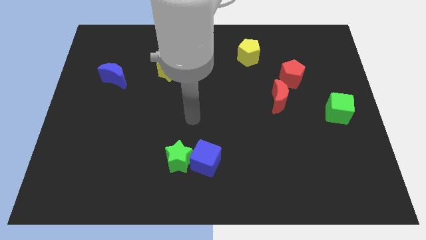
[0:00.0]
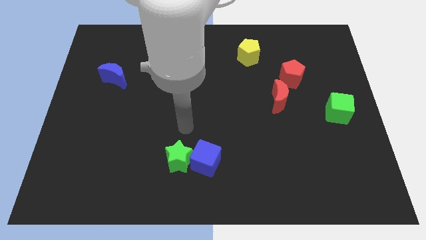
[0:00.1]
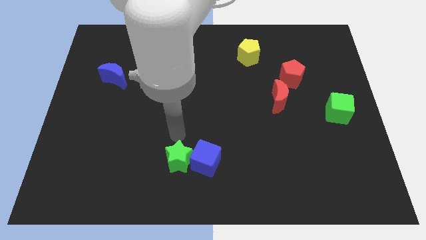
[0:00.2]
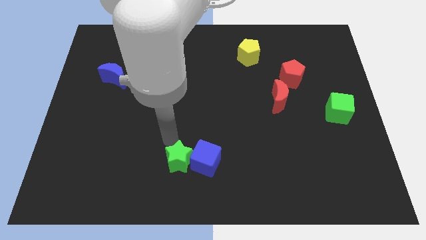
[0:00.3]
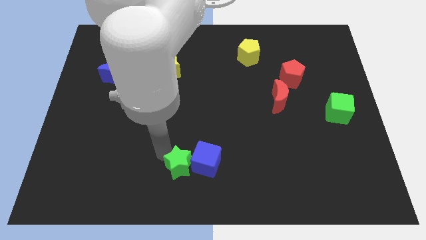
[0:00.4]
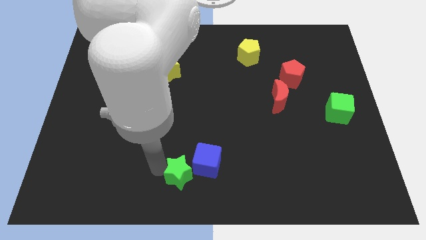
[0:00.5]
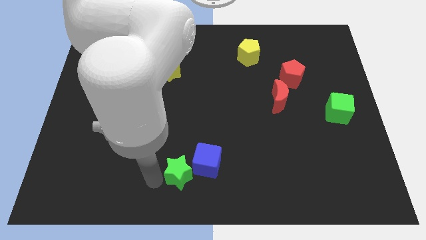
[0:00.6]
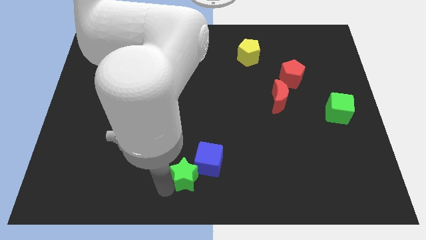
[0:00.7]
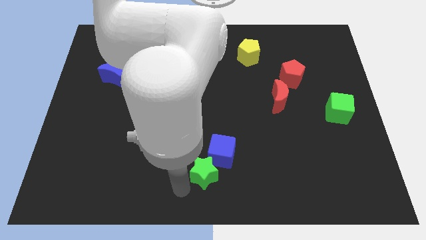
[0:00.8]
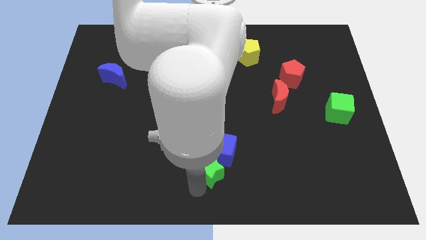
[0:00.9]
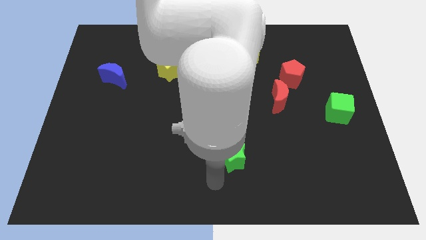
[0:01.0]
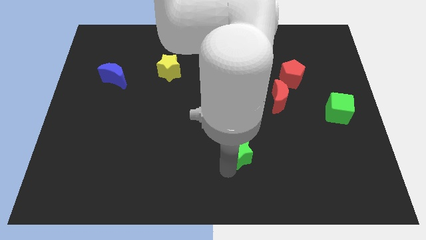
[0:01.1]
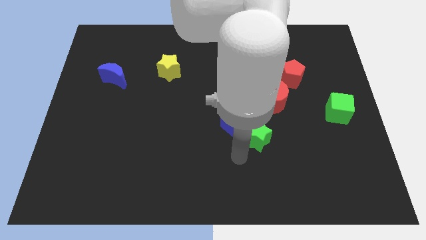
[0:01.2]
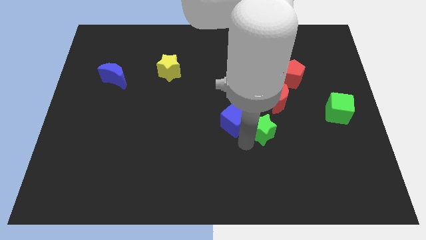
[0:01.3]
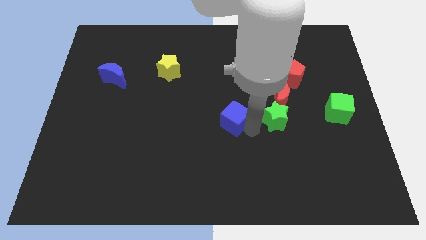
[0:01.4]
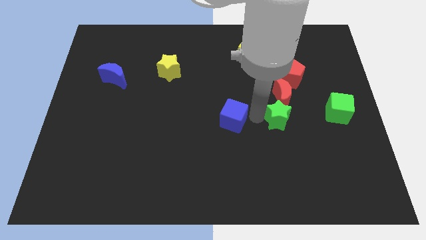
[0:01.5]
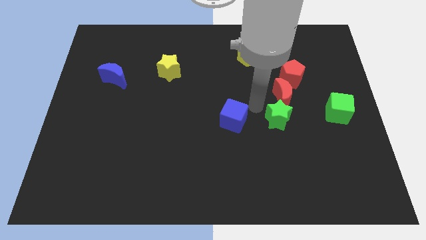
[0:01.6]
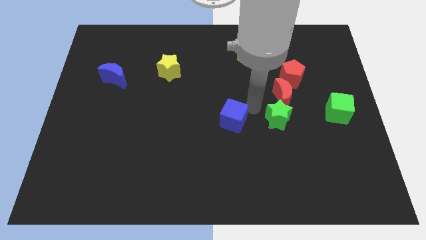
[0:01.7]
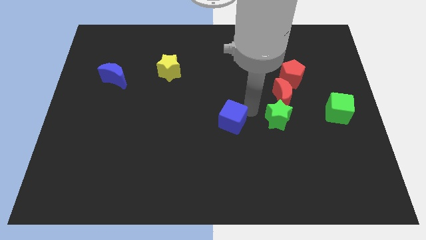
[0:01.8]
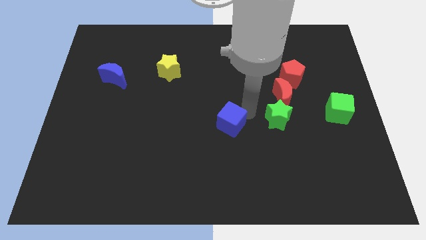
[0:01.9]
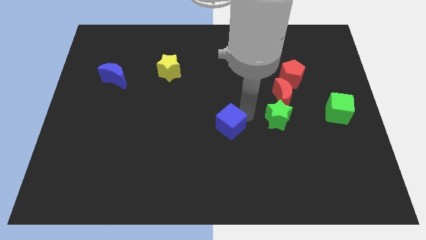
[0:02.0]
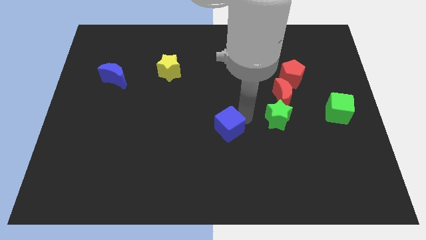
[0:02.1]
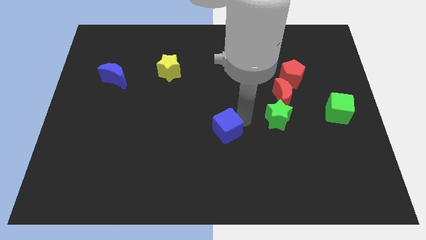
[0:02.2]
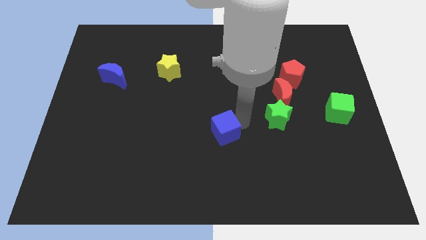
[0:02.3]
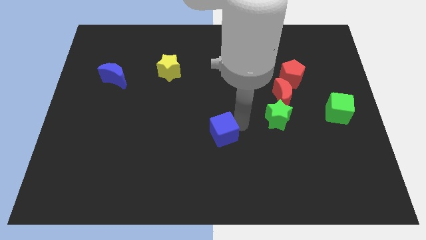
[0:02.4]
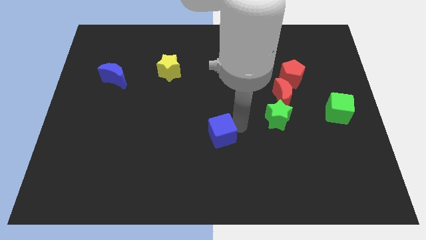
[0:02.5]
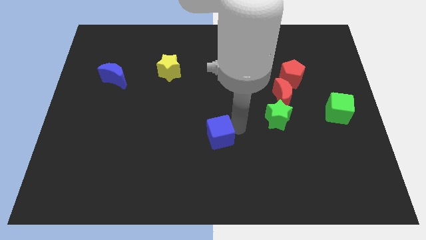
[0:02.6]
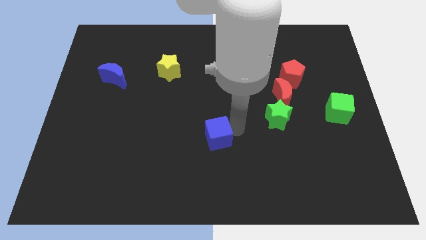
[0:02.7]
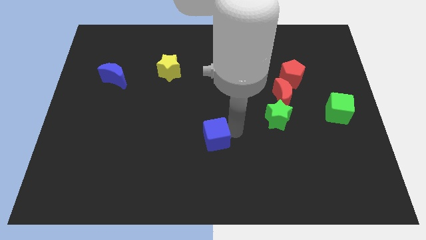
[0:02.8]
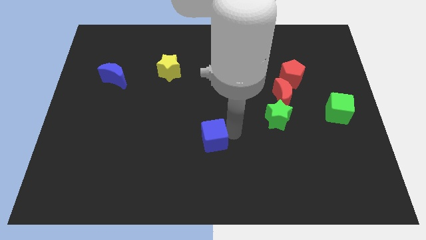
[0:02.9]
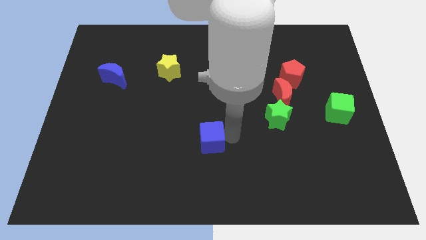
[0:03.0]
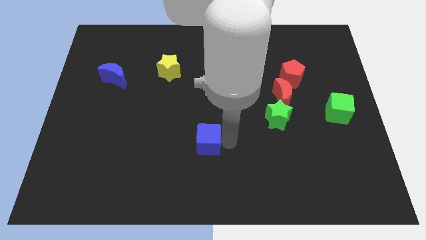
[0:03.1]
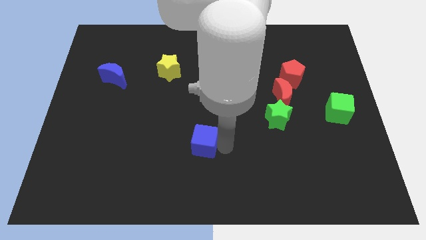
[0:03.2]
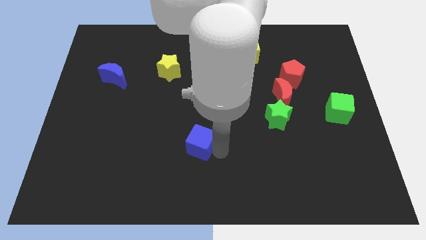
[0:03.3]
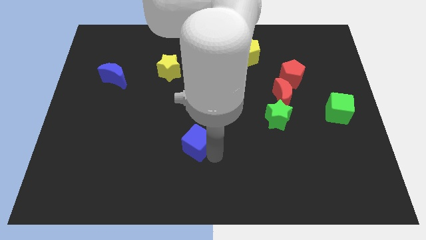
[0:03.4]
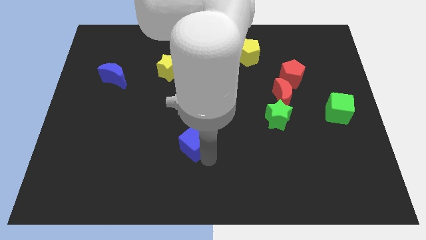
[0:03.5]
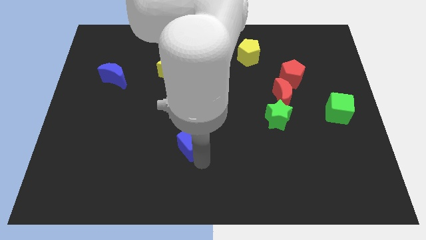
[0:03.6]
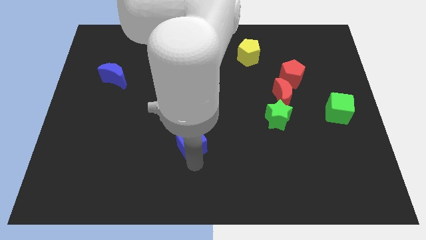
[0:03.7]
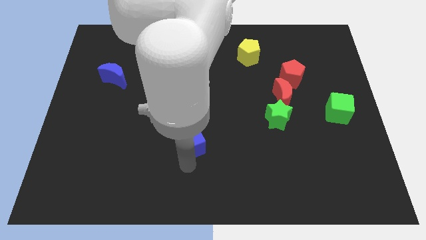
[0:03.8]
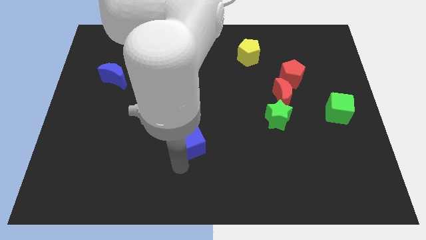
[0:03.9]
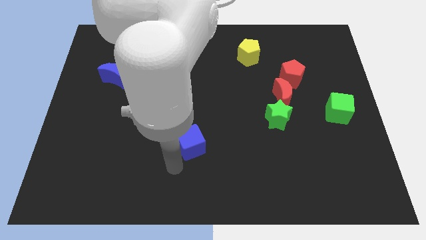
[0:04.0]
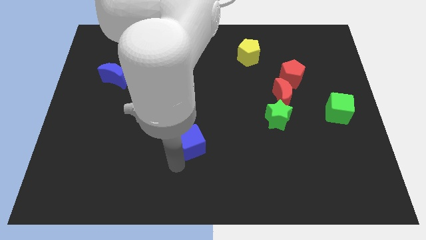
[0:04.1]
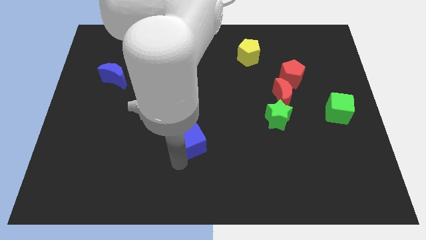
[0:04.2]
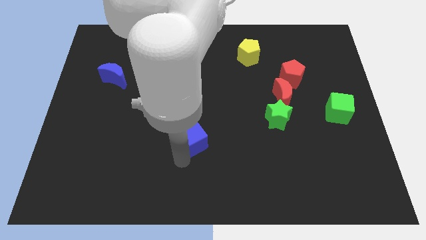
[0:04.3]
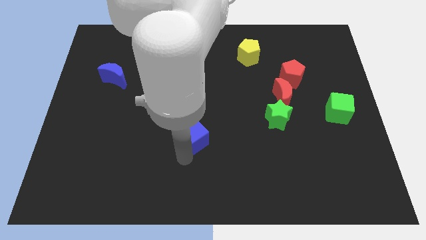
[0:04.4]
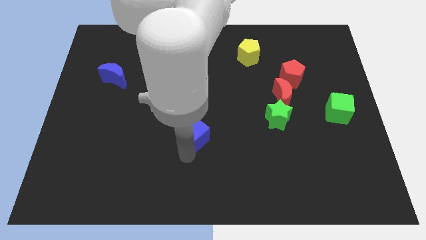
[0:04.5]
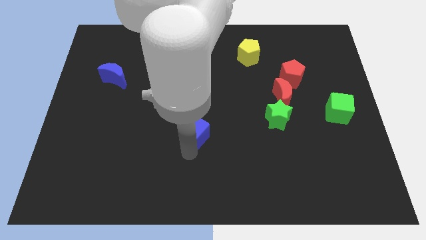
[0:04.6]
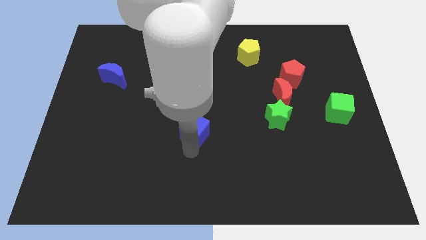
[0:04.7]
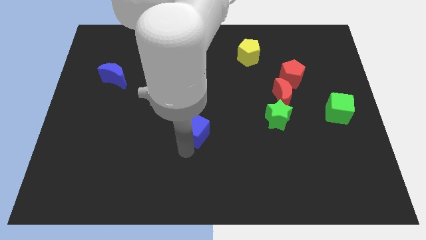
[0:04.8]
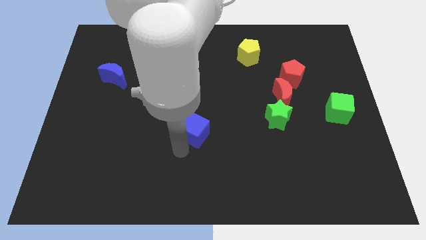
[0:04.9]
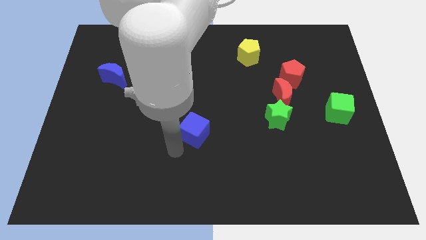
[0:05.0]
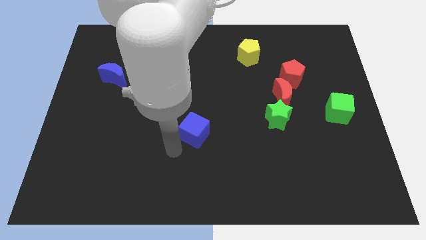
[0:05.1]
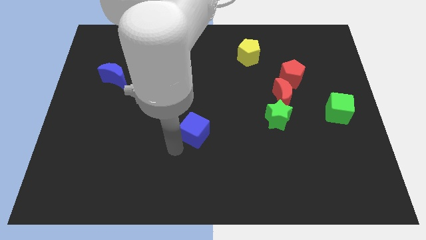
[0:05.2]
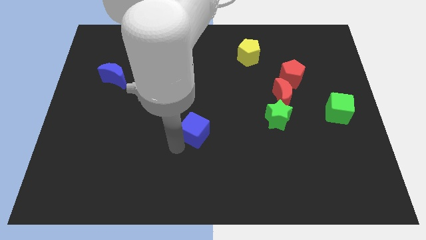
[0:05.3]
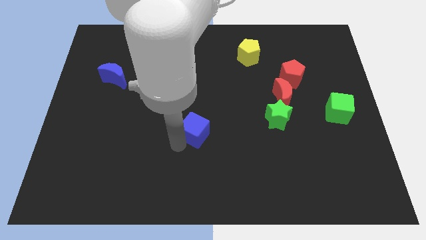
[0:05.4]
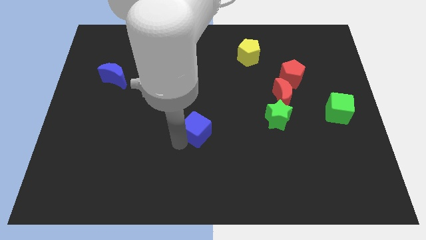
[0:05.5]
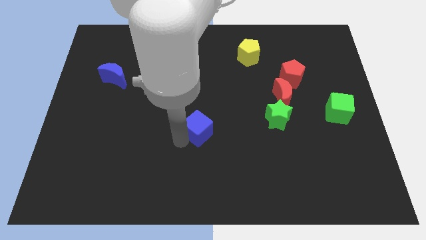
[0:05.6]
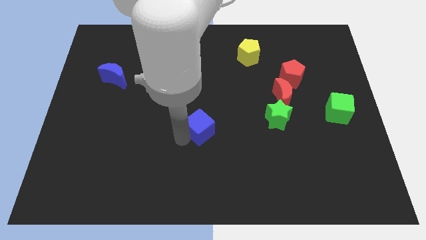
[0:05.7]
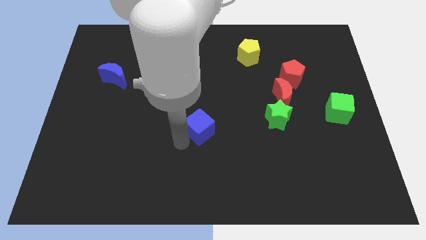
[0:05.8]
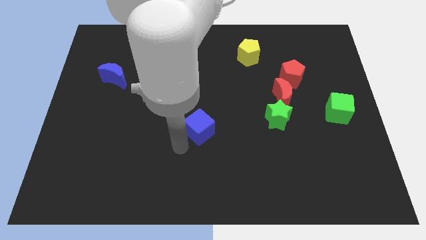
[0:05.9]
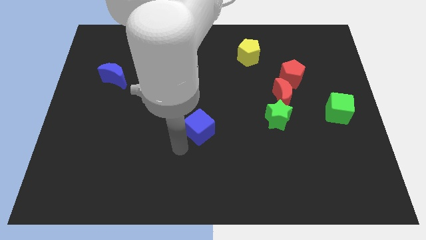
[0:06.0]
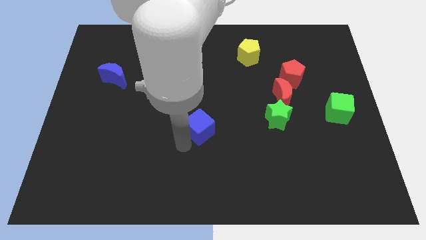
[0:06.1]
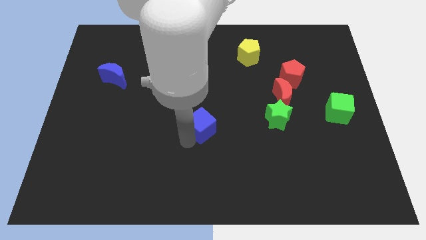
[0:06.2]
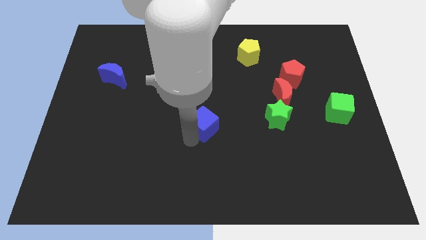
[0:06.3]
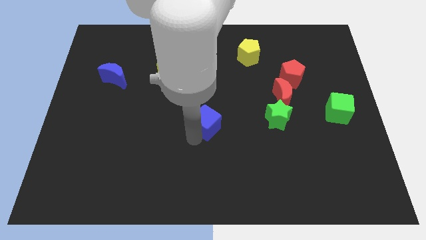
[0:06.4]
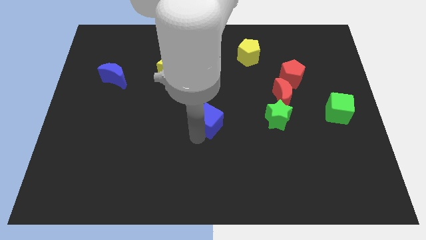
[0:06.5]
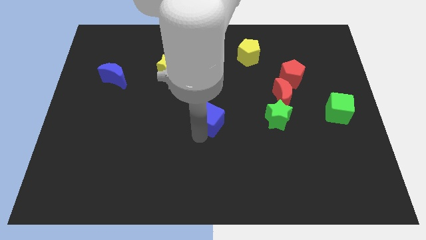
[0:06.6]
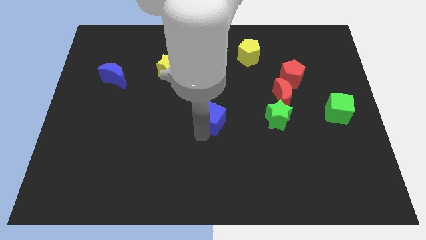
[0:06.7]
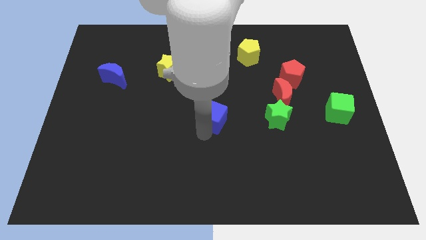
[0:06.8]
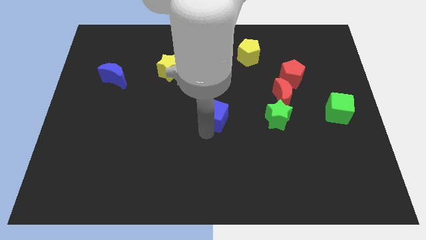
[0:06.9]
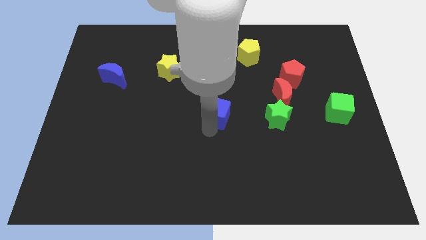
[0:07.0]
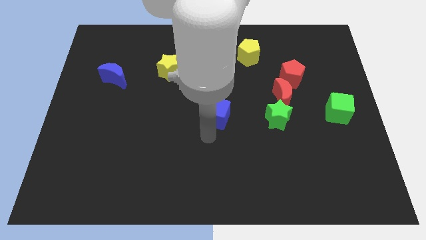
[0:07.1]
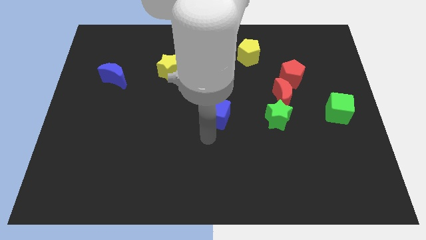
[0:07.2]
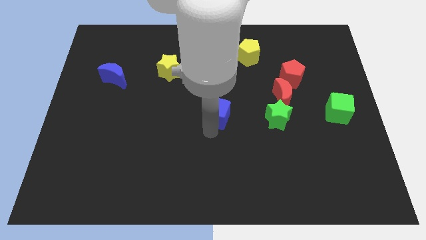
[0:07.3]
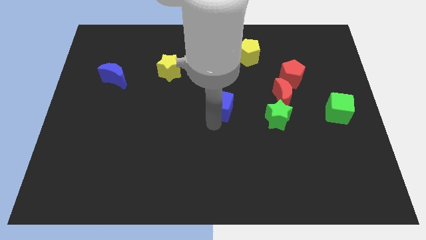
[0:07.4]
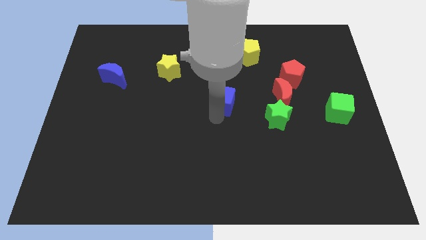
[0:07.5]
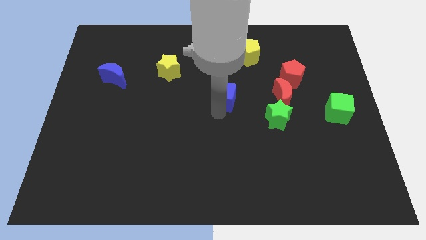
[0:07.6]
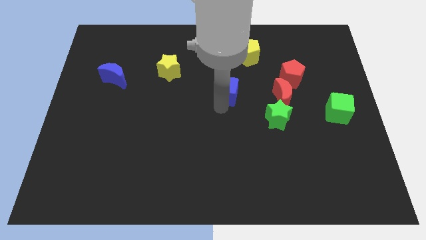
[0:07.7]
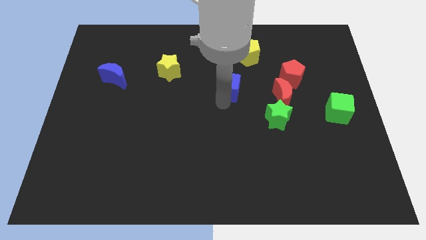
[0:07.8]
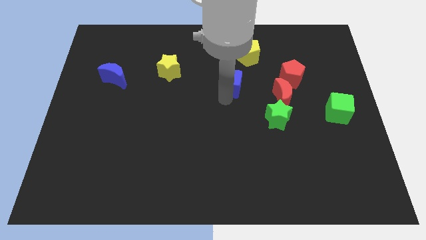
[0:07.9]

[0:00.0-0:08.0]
put the blue cube to the bottom left side of the yellow pentagon
